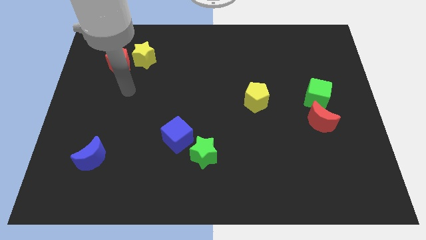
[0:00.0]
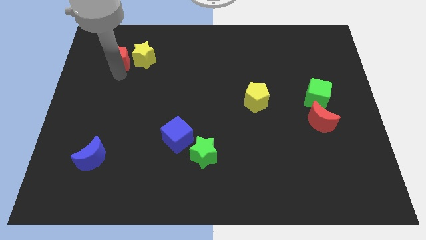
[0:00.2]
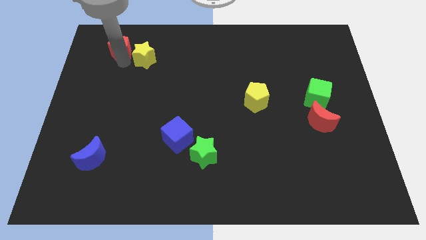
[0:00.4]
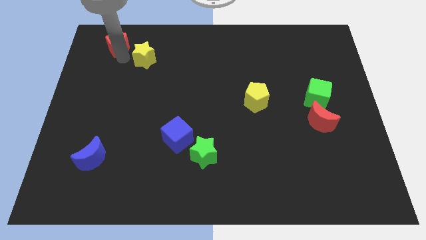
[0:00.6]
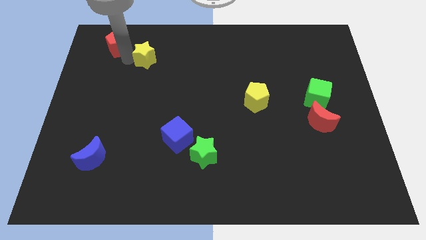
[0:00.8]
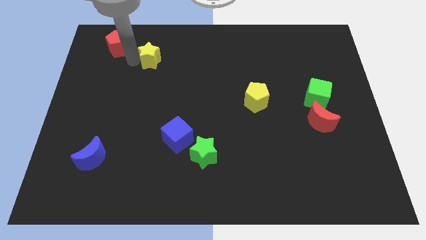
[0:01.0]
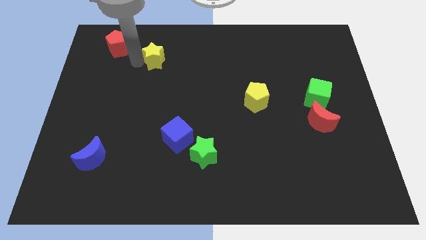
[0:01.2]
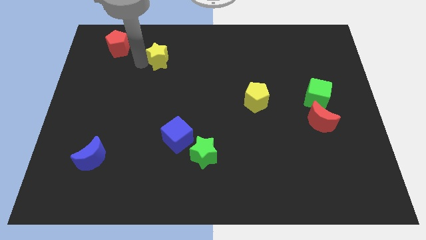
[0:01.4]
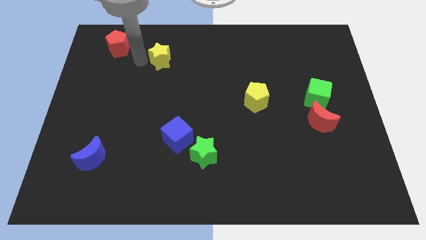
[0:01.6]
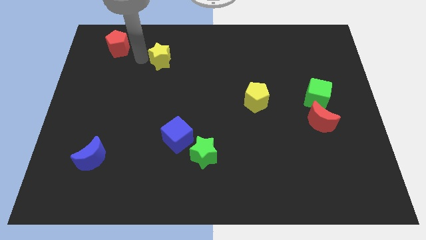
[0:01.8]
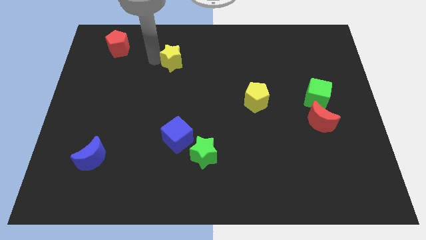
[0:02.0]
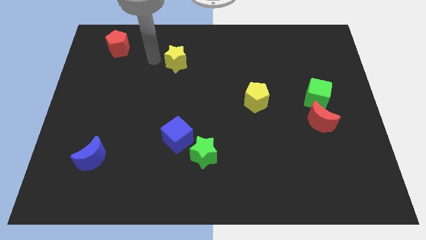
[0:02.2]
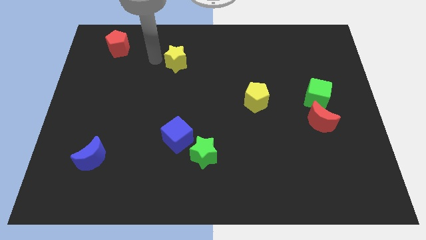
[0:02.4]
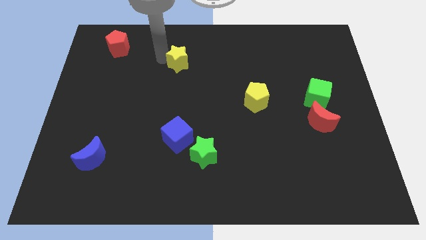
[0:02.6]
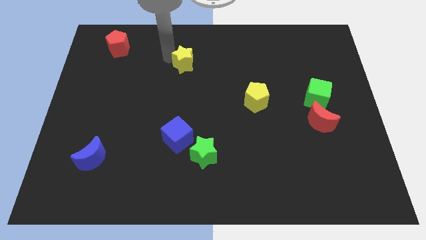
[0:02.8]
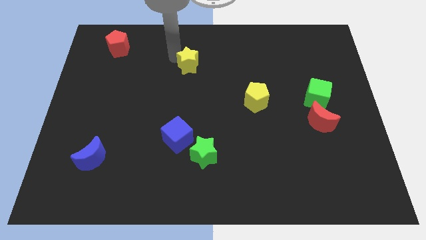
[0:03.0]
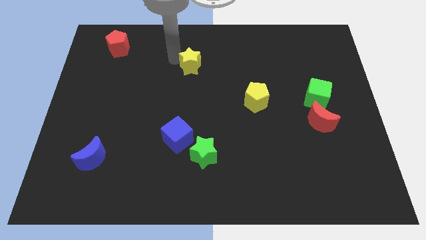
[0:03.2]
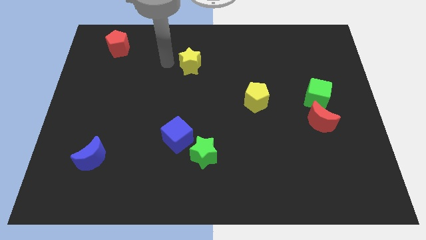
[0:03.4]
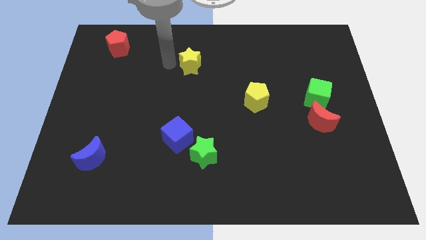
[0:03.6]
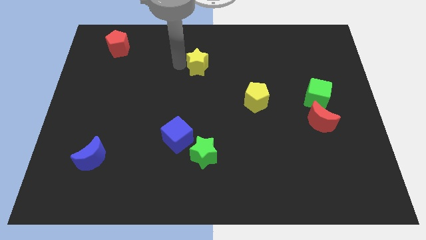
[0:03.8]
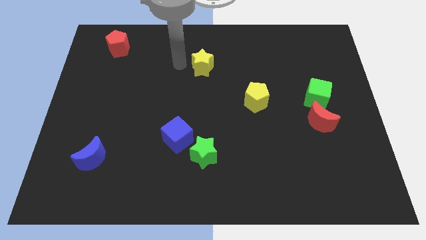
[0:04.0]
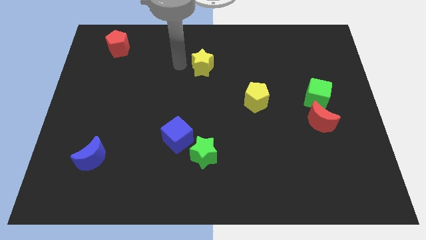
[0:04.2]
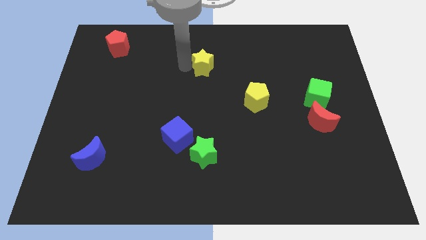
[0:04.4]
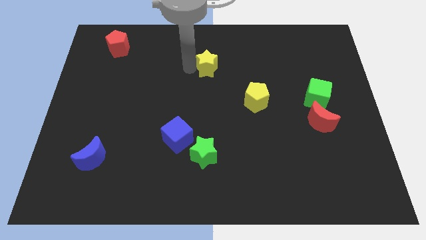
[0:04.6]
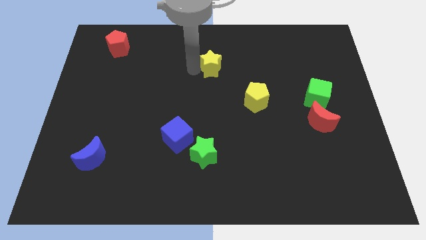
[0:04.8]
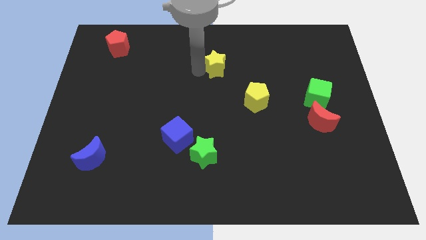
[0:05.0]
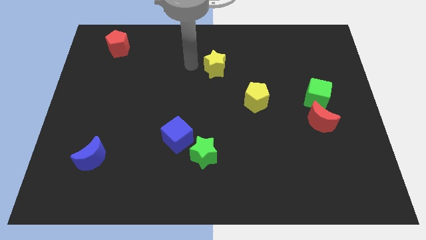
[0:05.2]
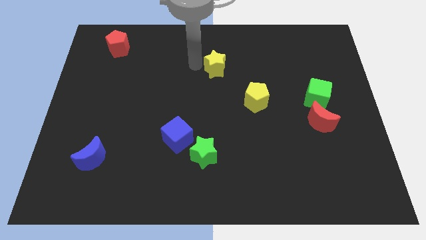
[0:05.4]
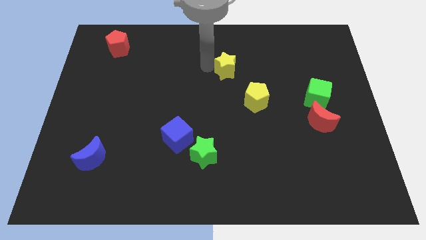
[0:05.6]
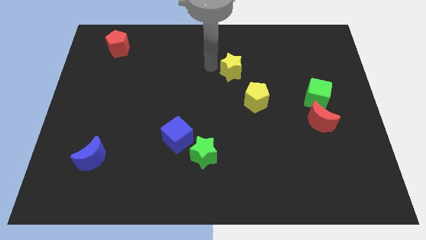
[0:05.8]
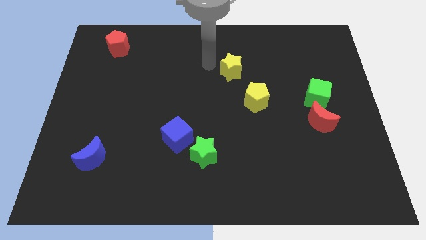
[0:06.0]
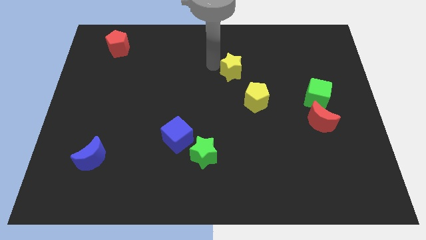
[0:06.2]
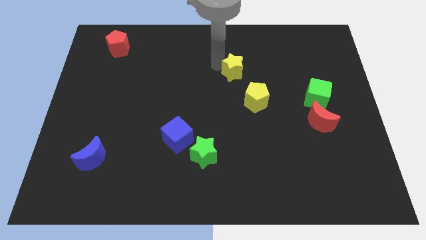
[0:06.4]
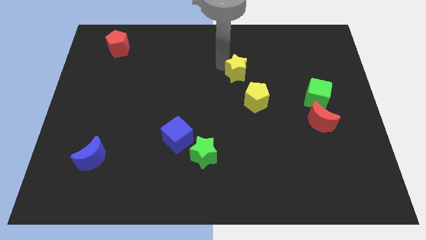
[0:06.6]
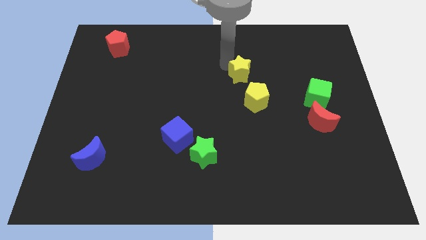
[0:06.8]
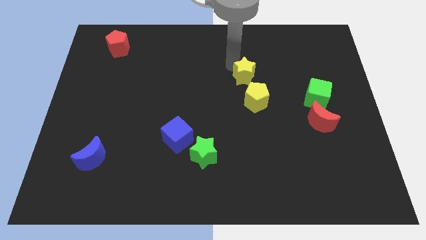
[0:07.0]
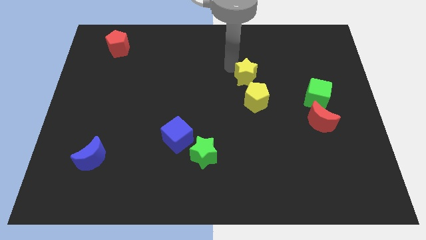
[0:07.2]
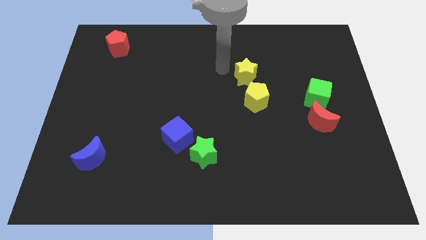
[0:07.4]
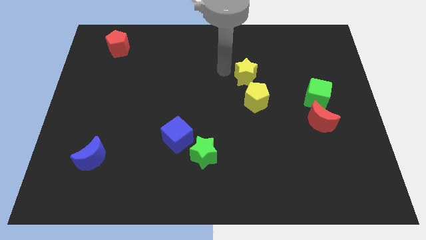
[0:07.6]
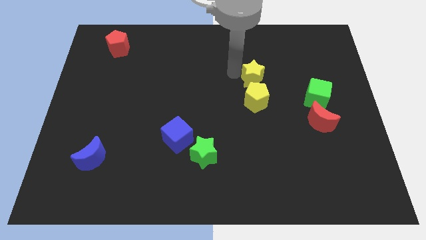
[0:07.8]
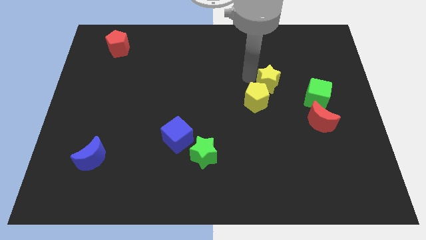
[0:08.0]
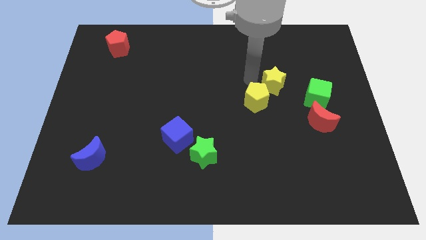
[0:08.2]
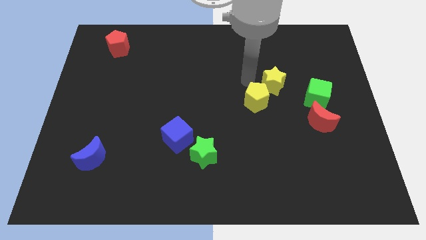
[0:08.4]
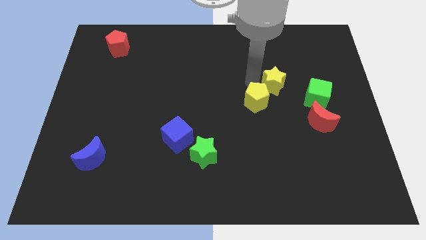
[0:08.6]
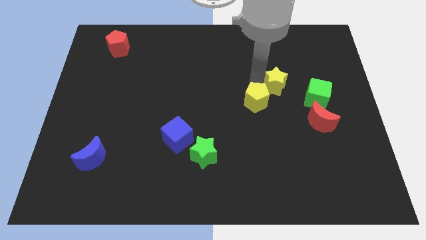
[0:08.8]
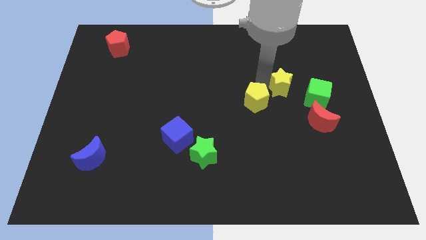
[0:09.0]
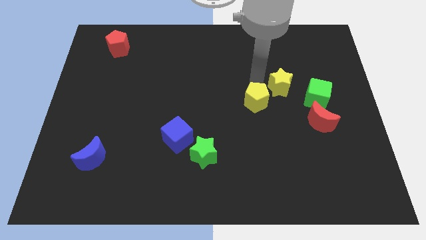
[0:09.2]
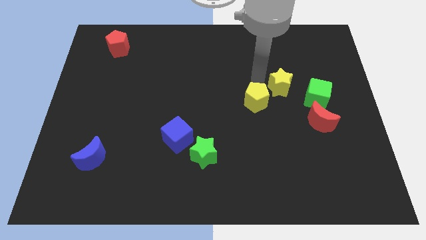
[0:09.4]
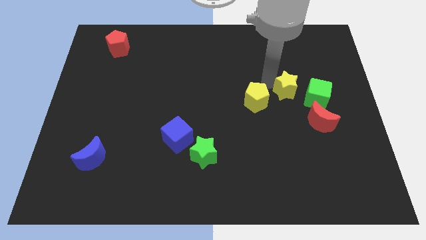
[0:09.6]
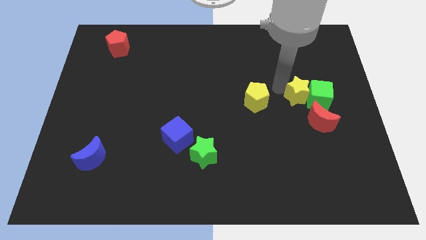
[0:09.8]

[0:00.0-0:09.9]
move the yellow star close to the green cube

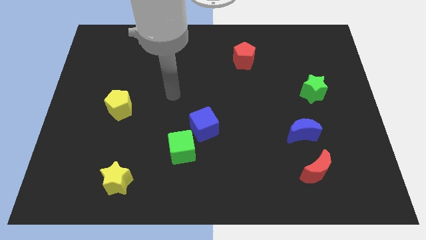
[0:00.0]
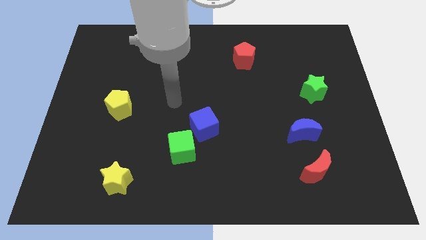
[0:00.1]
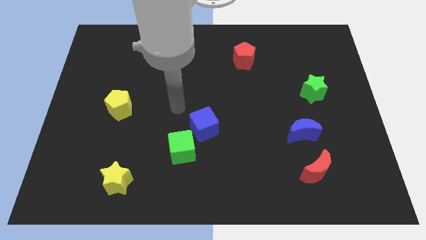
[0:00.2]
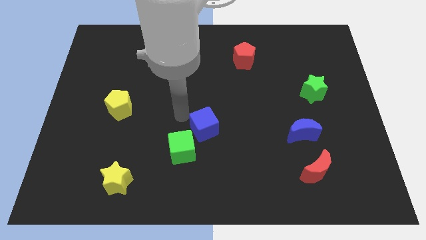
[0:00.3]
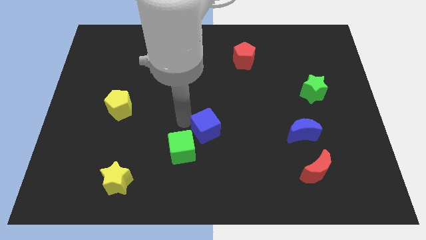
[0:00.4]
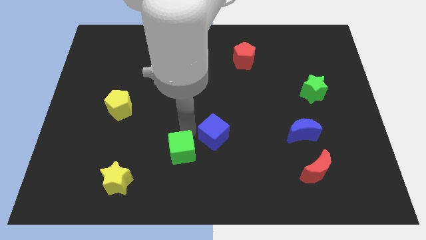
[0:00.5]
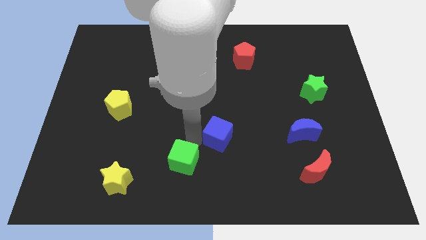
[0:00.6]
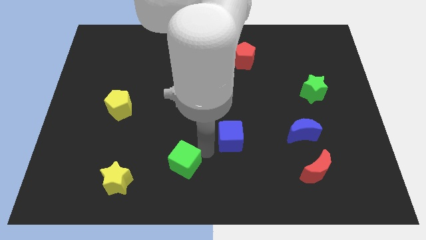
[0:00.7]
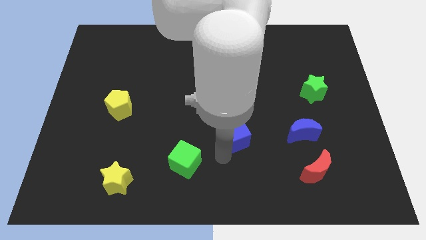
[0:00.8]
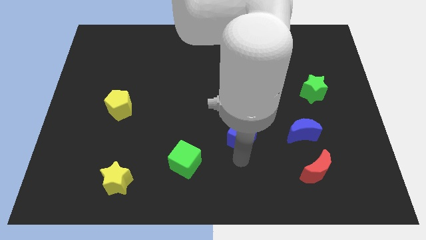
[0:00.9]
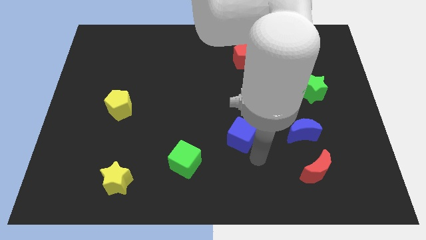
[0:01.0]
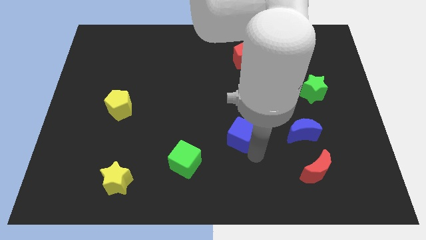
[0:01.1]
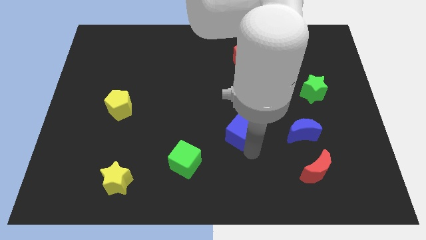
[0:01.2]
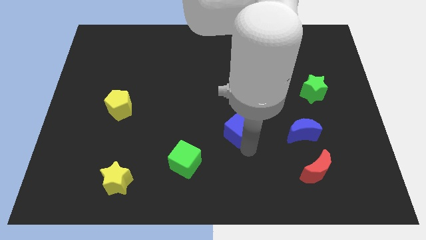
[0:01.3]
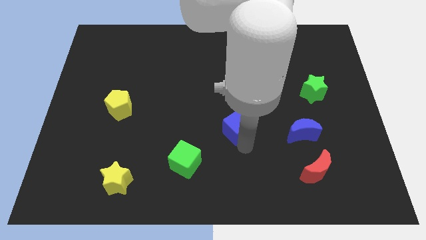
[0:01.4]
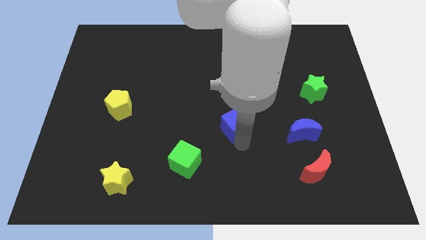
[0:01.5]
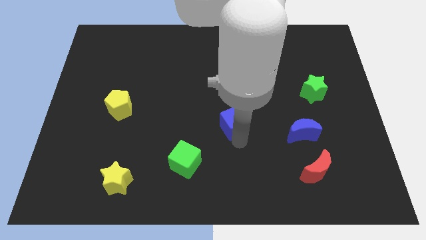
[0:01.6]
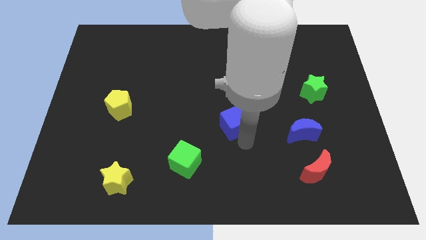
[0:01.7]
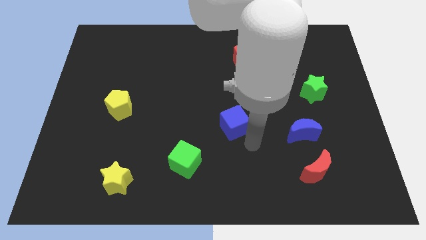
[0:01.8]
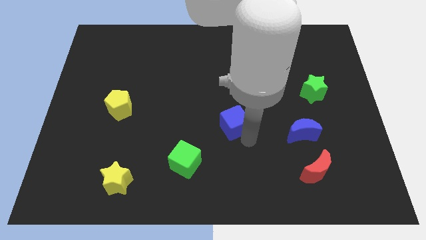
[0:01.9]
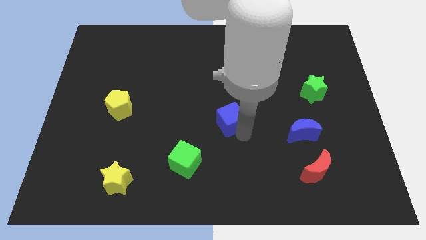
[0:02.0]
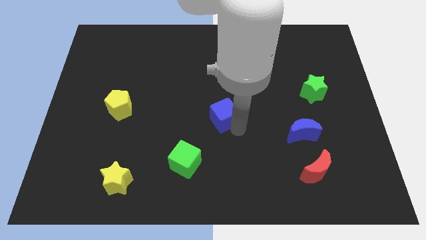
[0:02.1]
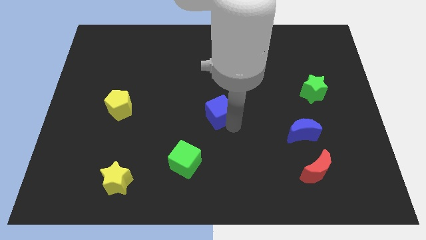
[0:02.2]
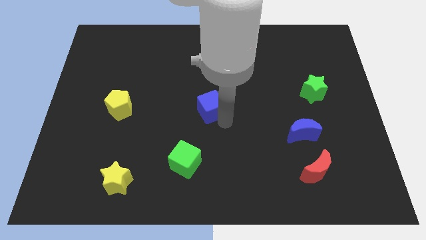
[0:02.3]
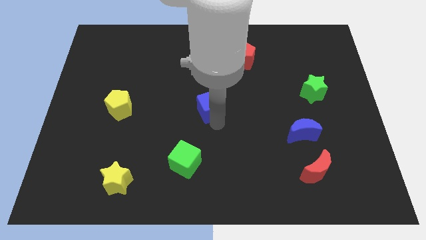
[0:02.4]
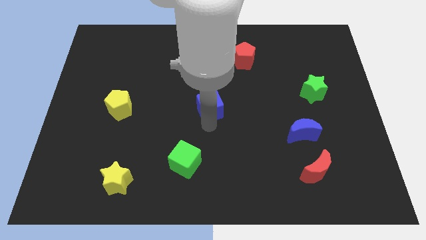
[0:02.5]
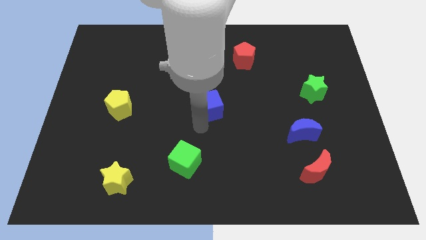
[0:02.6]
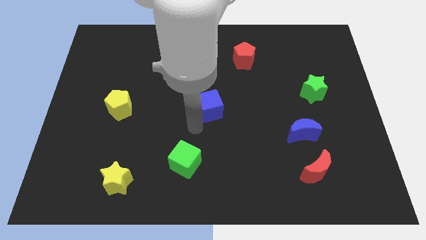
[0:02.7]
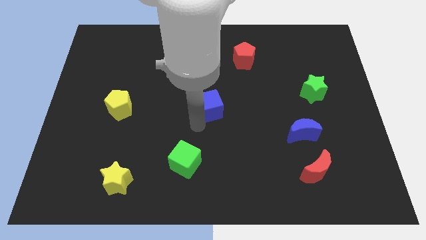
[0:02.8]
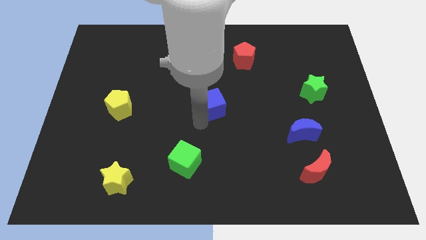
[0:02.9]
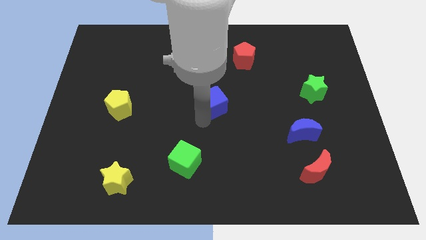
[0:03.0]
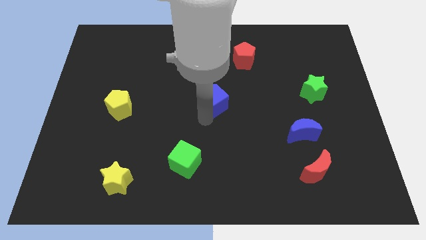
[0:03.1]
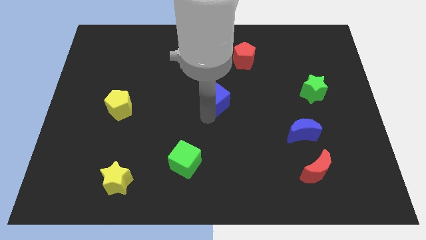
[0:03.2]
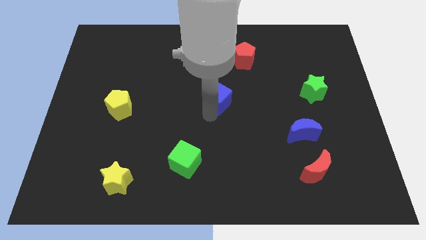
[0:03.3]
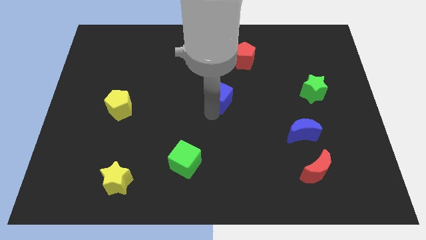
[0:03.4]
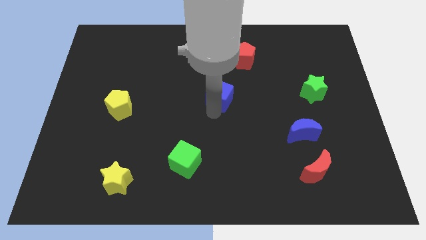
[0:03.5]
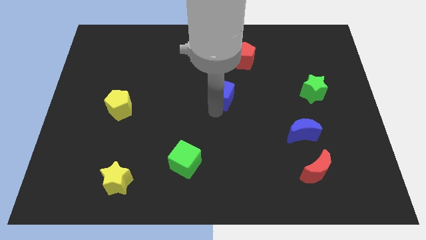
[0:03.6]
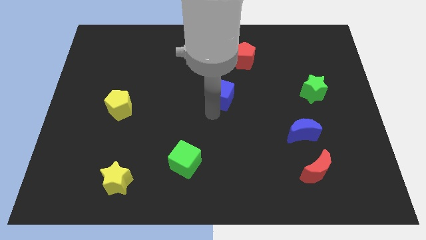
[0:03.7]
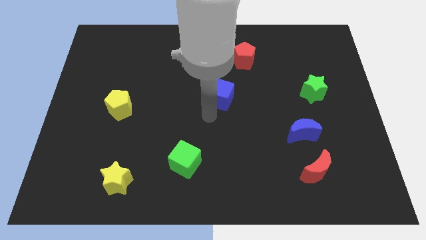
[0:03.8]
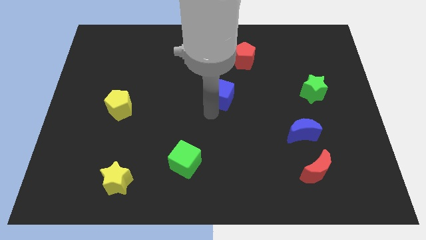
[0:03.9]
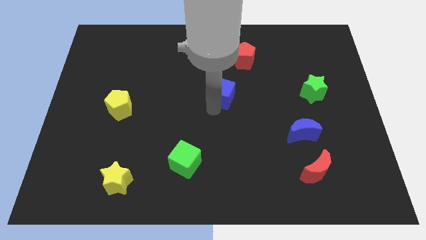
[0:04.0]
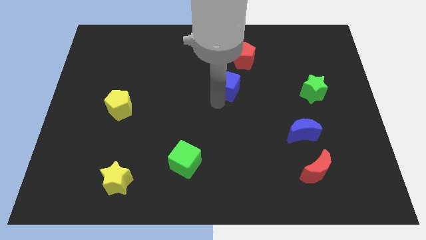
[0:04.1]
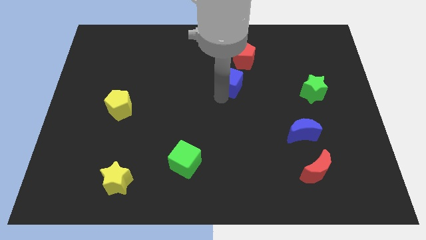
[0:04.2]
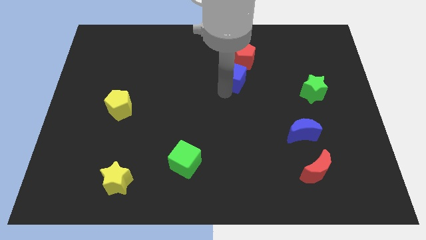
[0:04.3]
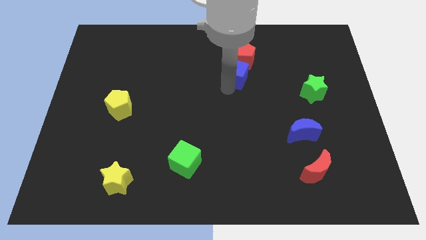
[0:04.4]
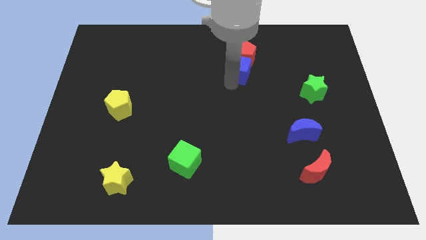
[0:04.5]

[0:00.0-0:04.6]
slide the blue cube towards the red pentagon
